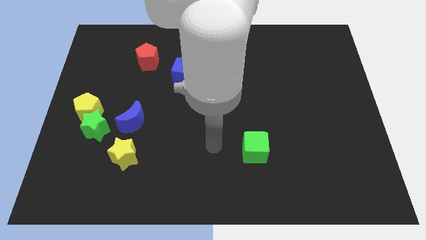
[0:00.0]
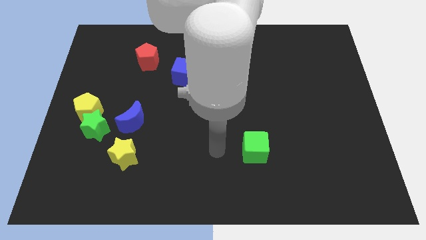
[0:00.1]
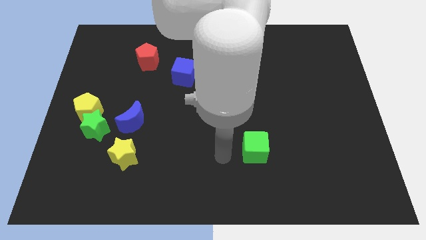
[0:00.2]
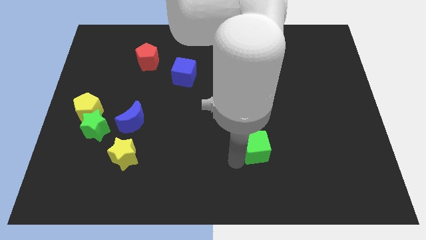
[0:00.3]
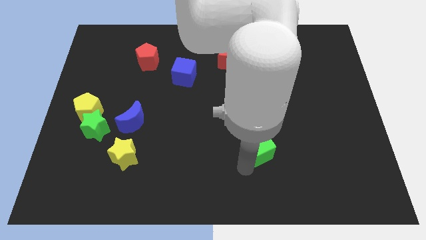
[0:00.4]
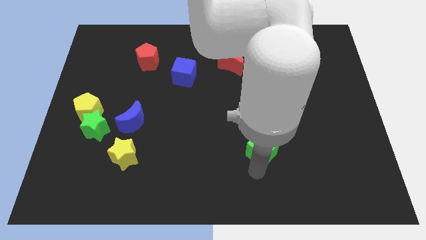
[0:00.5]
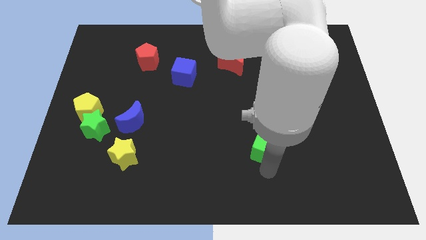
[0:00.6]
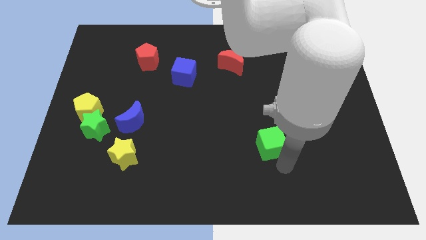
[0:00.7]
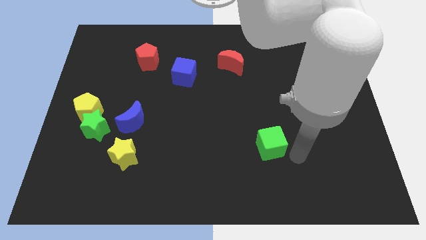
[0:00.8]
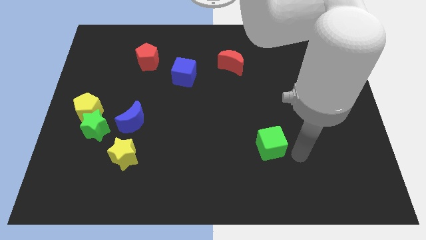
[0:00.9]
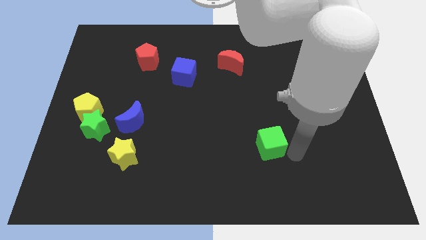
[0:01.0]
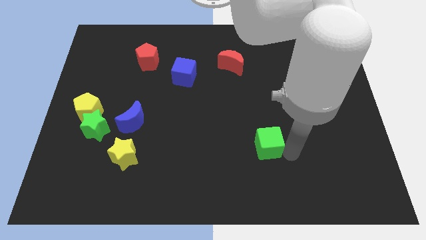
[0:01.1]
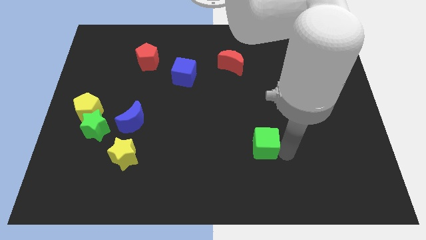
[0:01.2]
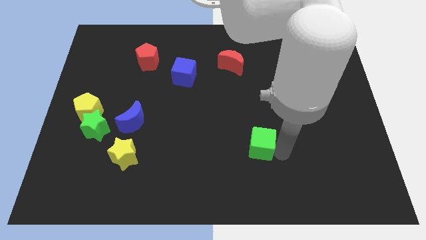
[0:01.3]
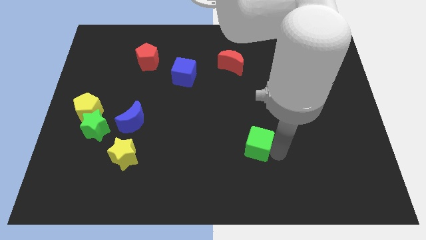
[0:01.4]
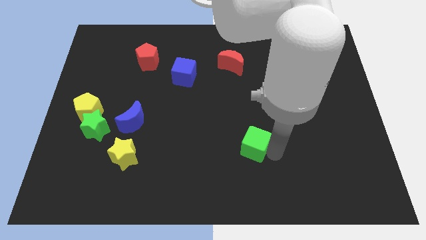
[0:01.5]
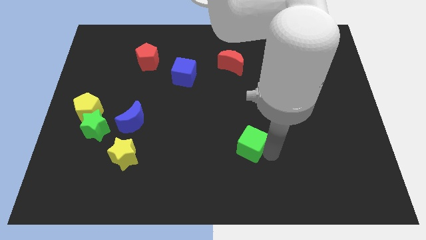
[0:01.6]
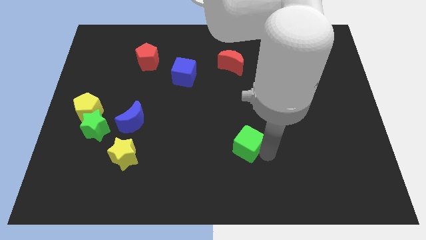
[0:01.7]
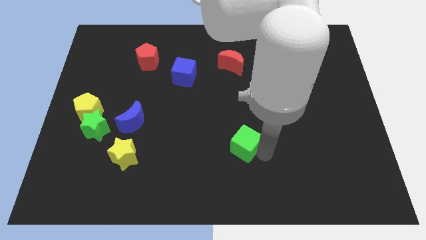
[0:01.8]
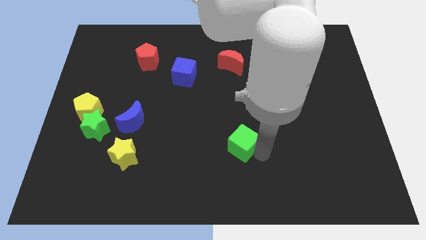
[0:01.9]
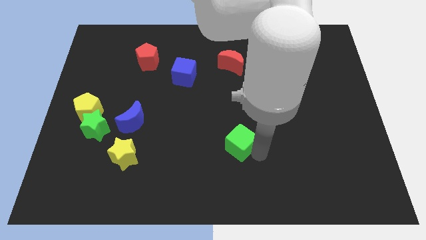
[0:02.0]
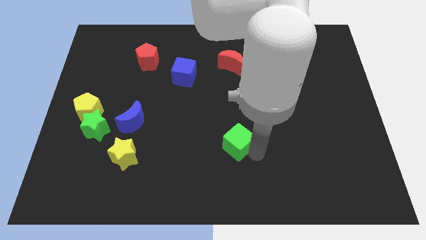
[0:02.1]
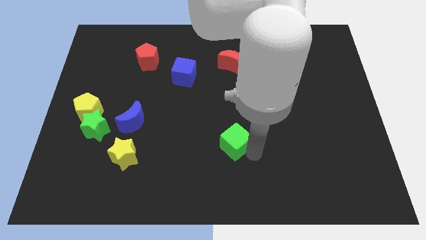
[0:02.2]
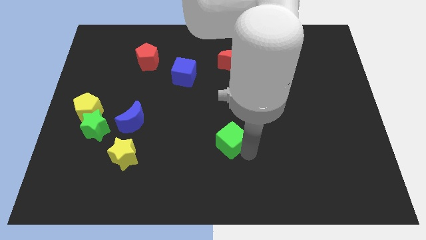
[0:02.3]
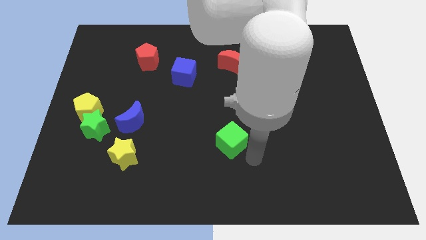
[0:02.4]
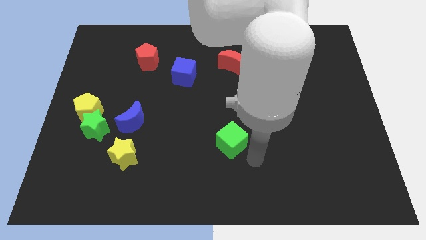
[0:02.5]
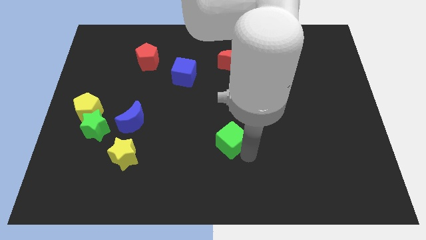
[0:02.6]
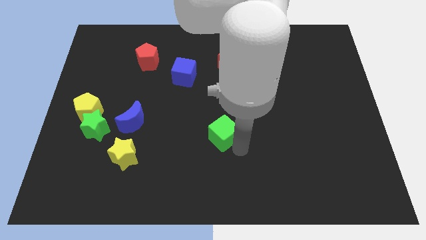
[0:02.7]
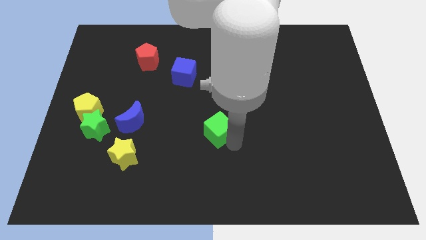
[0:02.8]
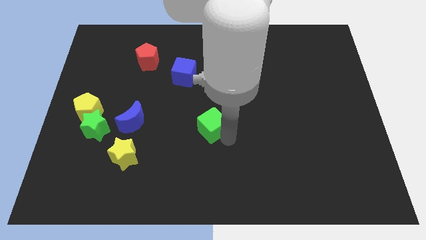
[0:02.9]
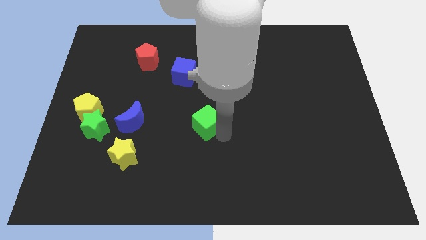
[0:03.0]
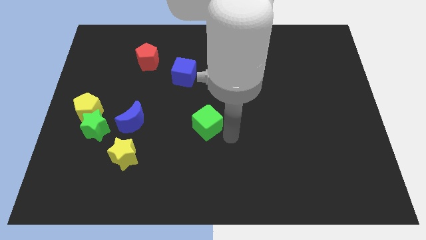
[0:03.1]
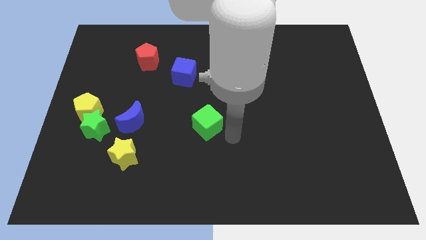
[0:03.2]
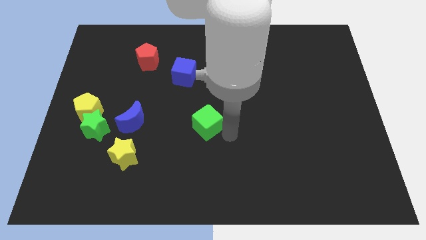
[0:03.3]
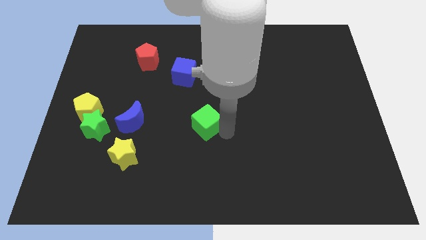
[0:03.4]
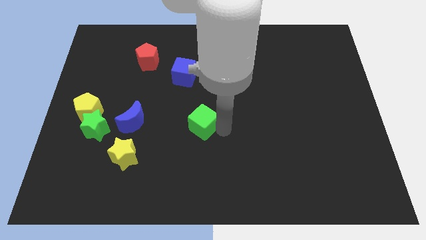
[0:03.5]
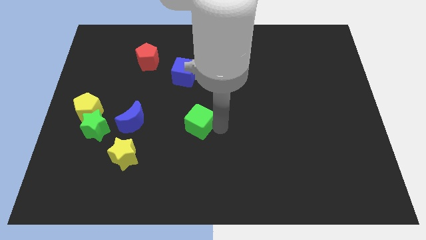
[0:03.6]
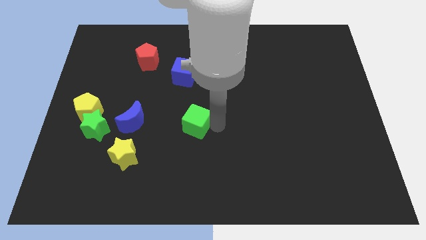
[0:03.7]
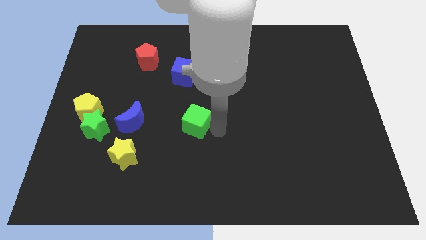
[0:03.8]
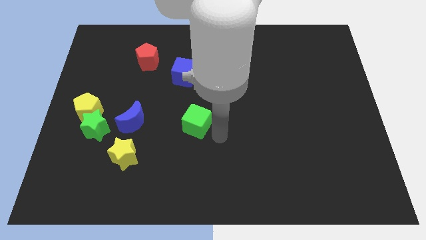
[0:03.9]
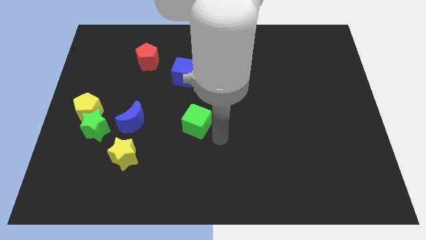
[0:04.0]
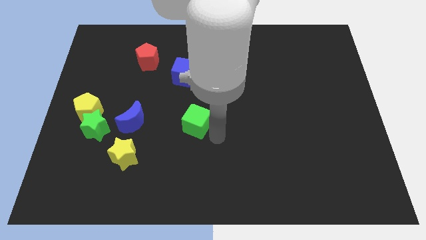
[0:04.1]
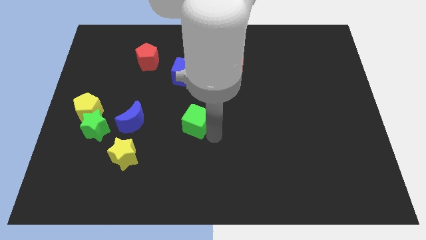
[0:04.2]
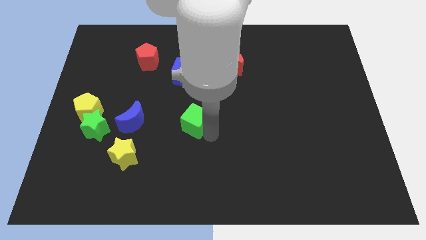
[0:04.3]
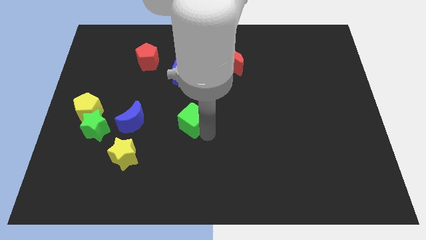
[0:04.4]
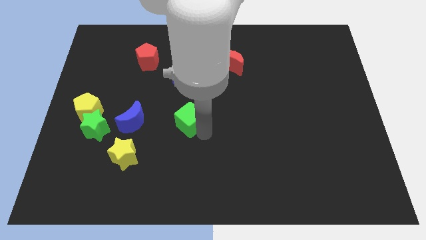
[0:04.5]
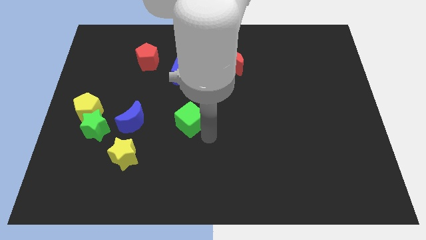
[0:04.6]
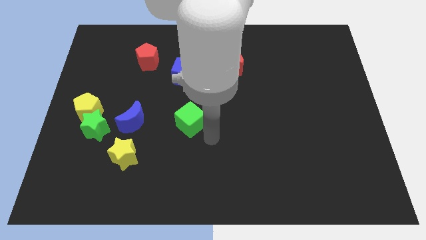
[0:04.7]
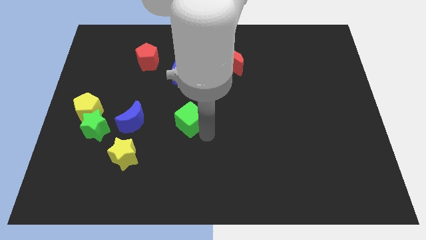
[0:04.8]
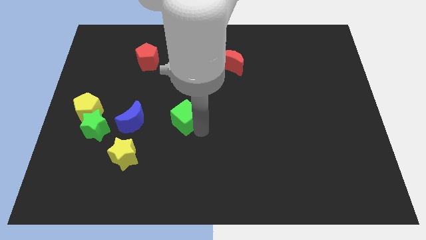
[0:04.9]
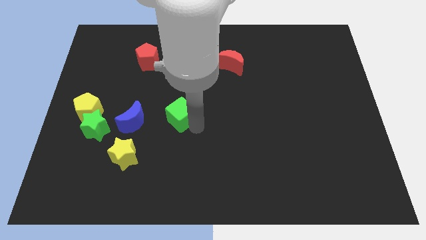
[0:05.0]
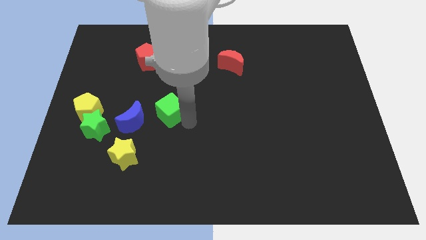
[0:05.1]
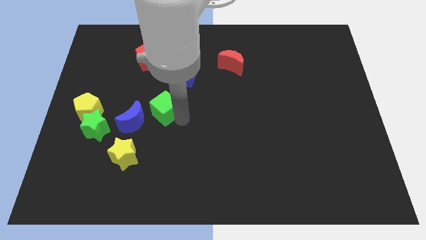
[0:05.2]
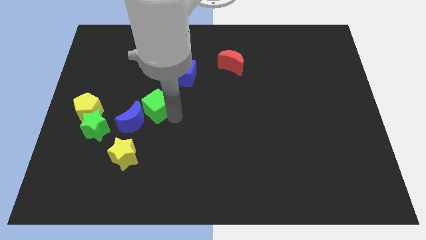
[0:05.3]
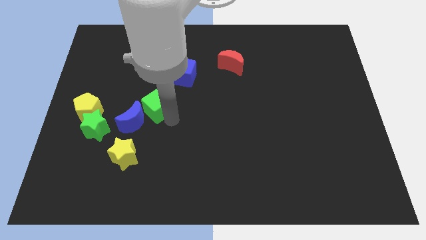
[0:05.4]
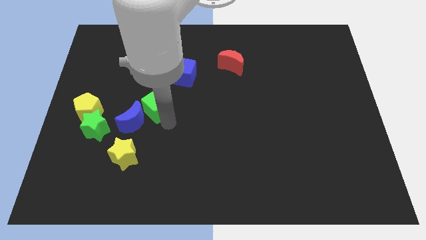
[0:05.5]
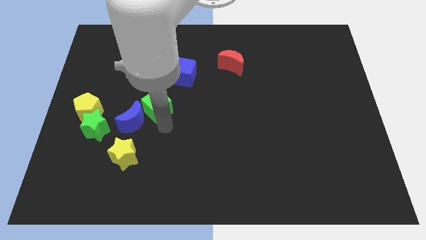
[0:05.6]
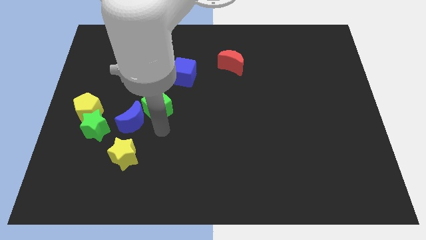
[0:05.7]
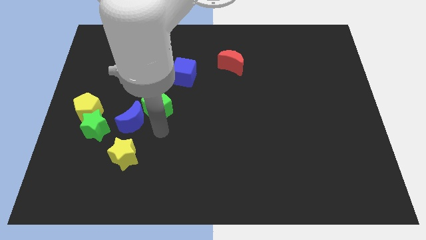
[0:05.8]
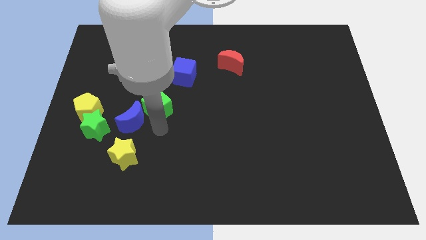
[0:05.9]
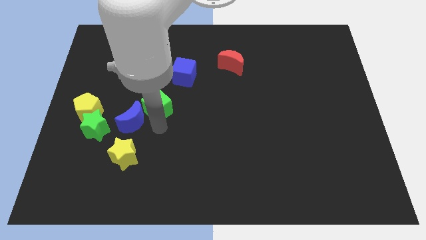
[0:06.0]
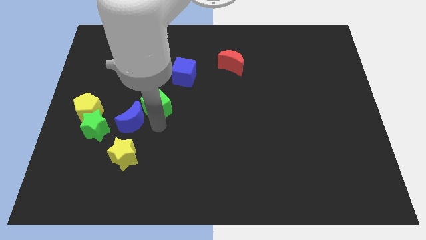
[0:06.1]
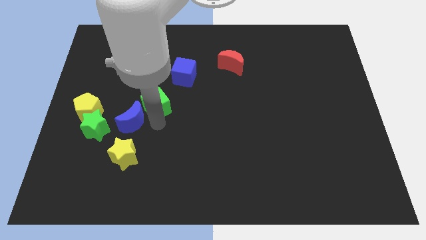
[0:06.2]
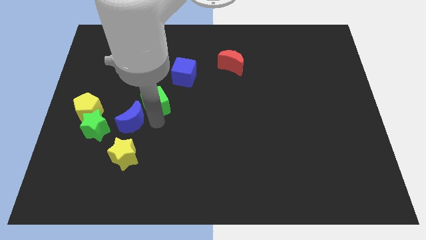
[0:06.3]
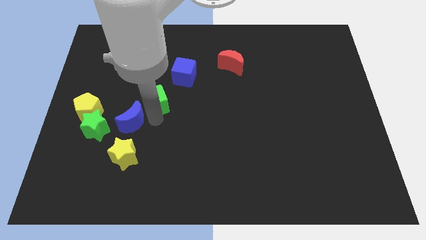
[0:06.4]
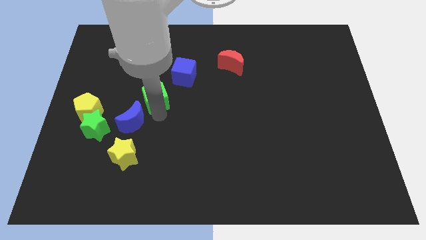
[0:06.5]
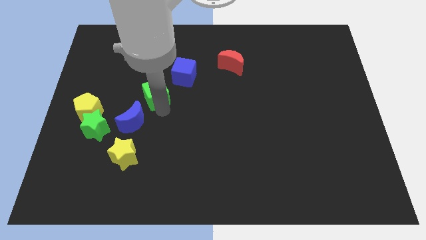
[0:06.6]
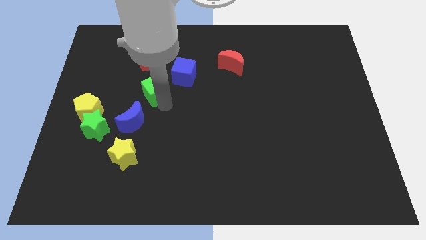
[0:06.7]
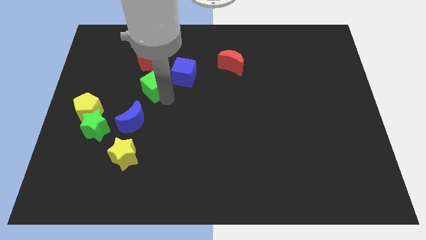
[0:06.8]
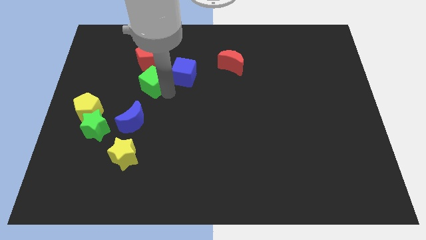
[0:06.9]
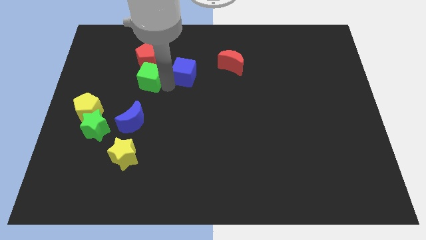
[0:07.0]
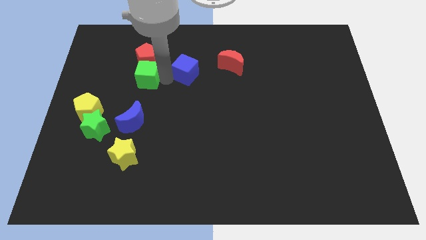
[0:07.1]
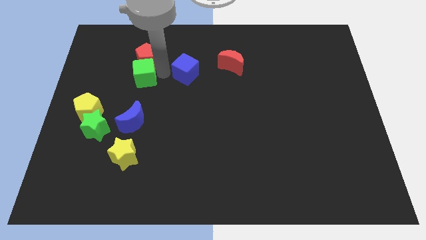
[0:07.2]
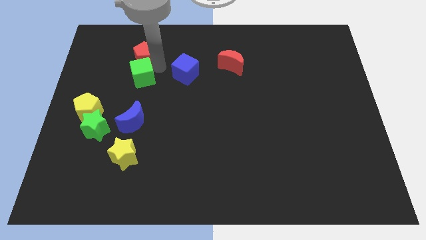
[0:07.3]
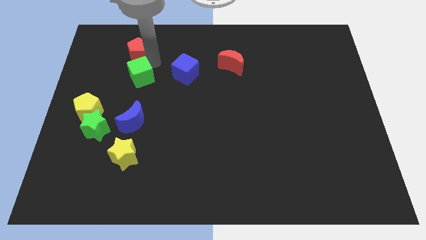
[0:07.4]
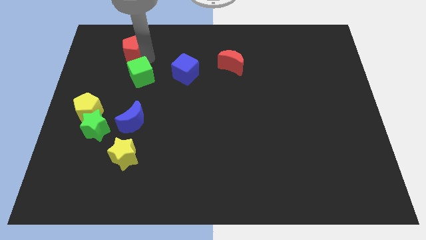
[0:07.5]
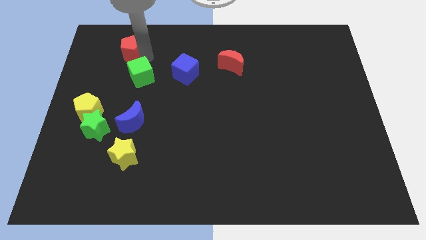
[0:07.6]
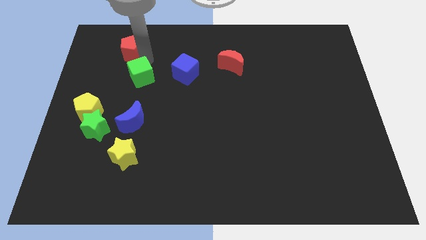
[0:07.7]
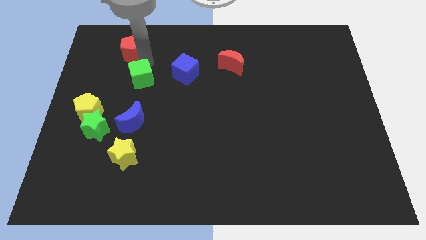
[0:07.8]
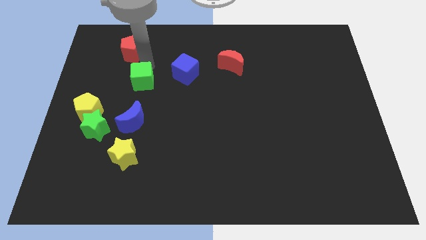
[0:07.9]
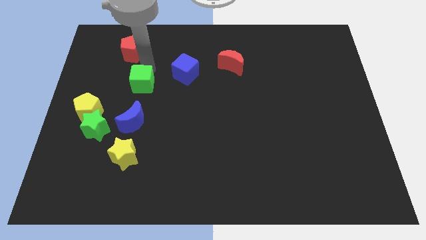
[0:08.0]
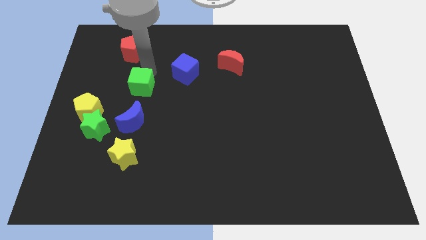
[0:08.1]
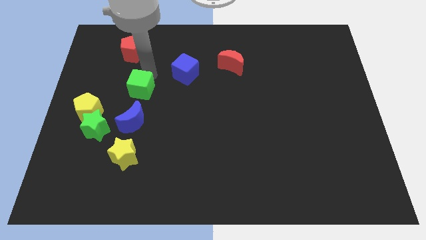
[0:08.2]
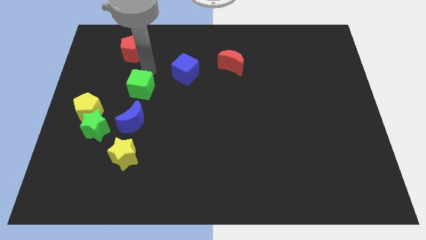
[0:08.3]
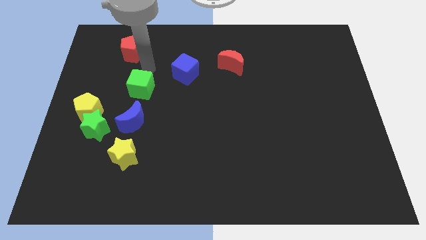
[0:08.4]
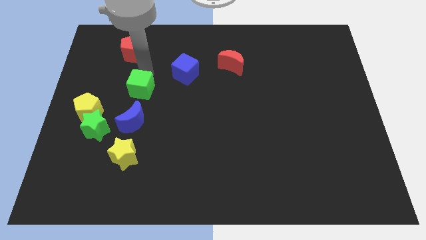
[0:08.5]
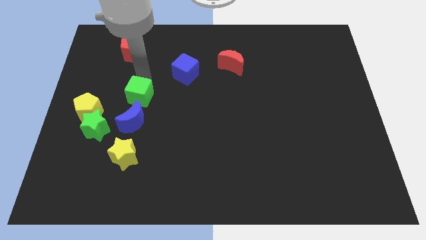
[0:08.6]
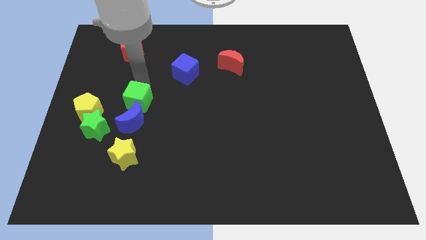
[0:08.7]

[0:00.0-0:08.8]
slide the green cube to the top side of the yellow star
